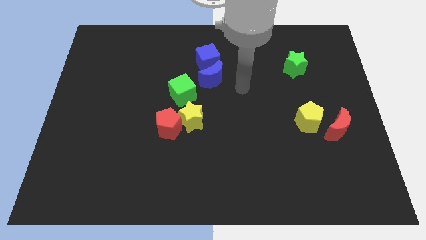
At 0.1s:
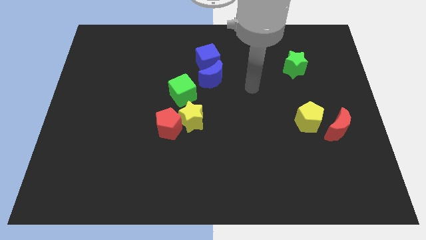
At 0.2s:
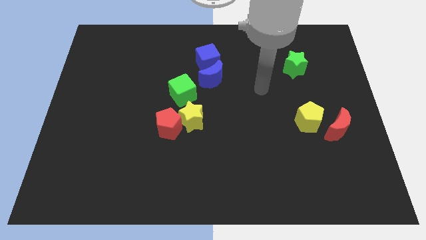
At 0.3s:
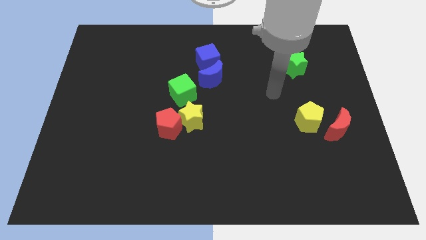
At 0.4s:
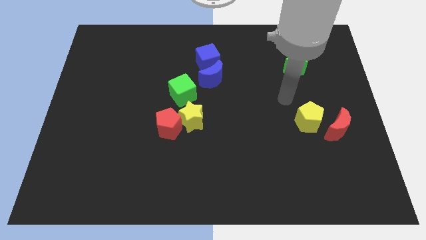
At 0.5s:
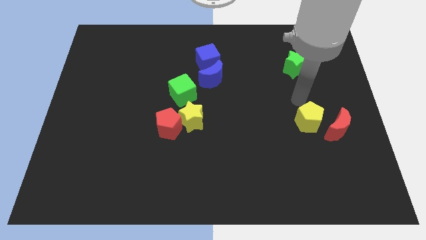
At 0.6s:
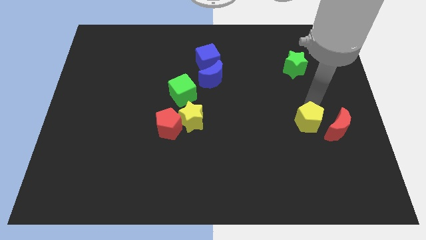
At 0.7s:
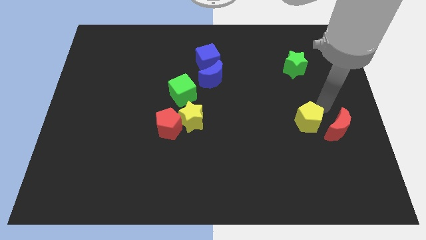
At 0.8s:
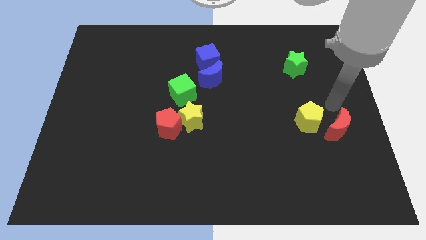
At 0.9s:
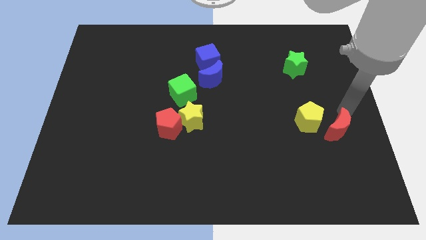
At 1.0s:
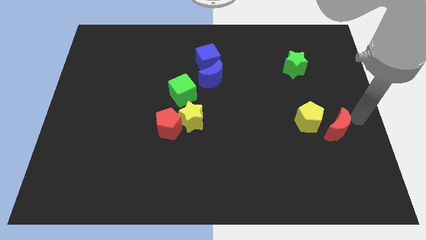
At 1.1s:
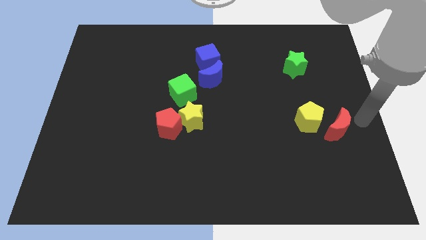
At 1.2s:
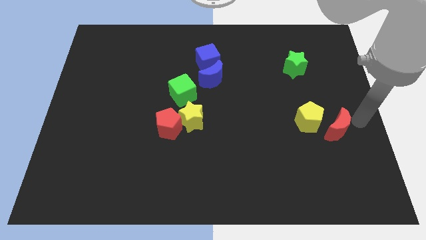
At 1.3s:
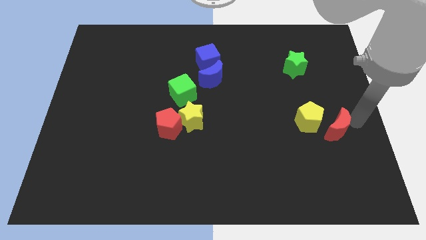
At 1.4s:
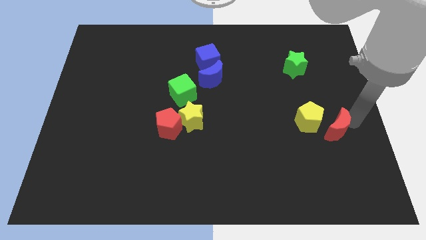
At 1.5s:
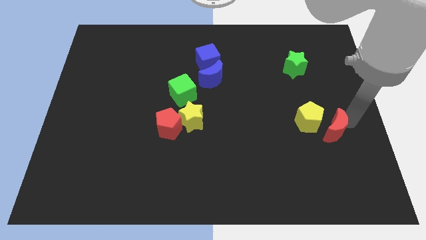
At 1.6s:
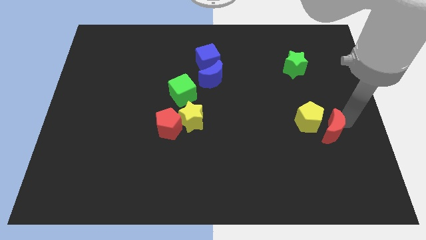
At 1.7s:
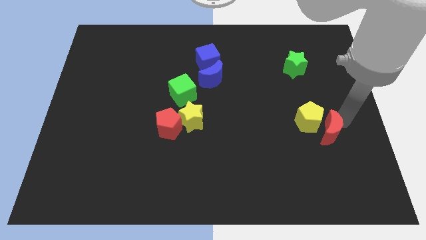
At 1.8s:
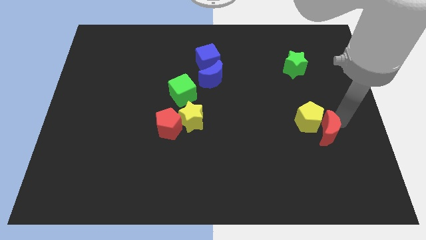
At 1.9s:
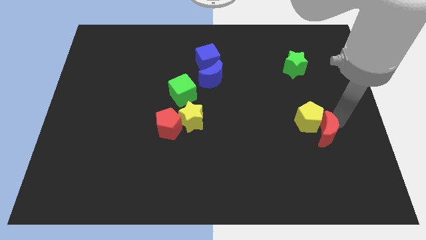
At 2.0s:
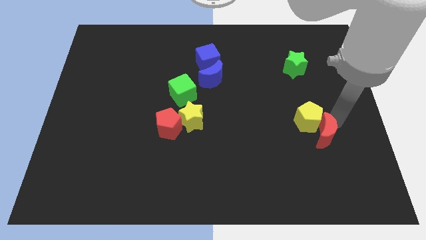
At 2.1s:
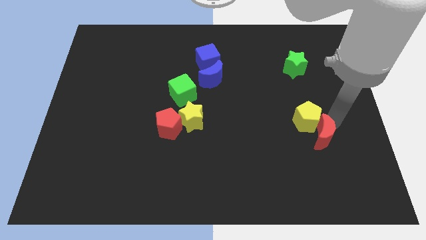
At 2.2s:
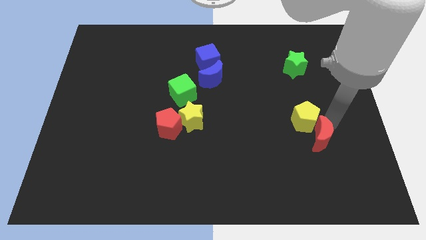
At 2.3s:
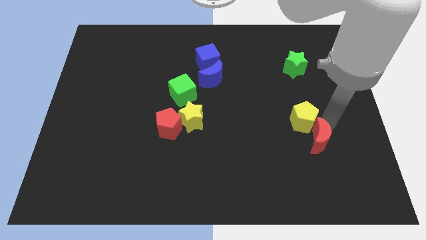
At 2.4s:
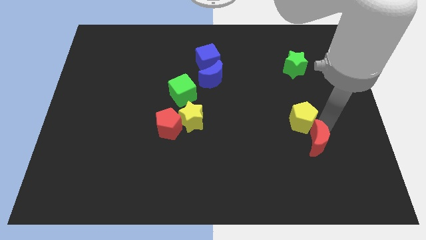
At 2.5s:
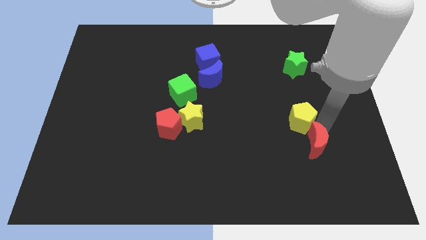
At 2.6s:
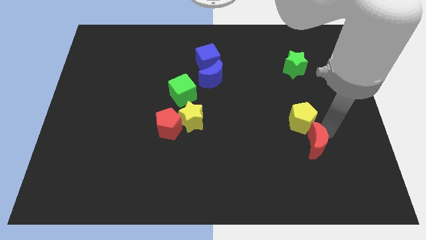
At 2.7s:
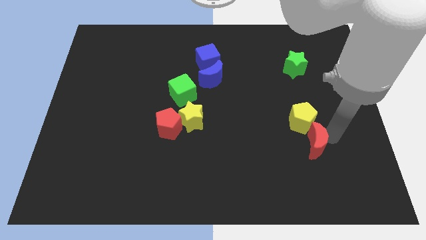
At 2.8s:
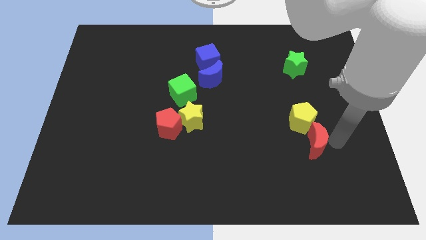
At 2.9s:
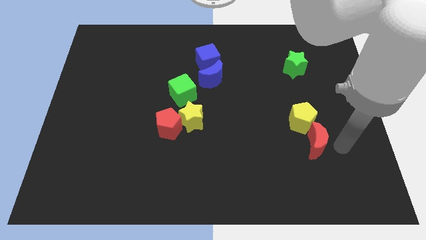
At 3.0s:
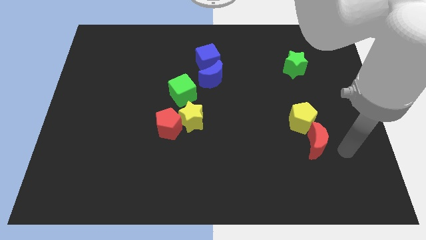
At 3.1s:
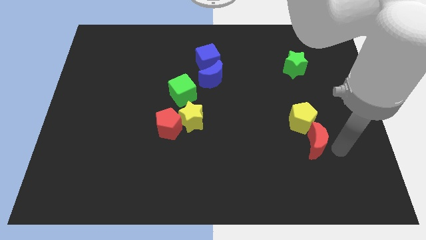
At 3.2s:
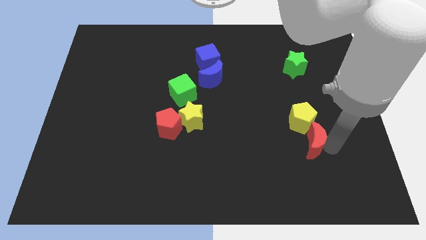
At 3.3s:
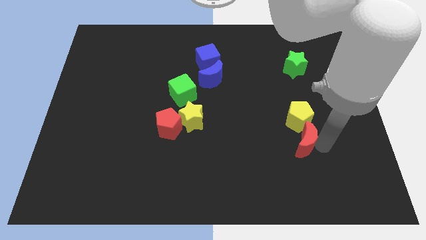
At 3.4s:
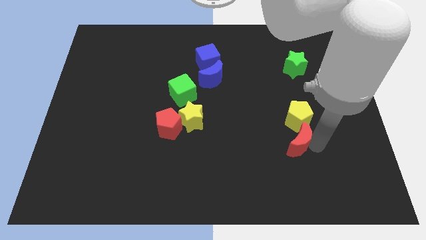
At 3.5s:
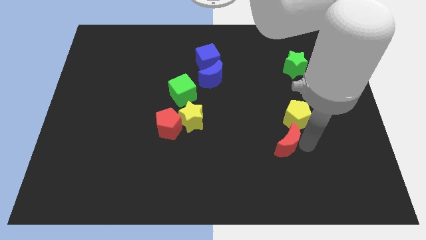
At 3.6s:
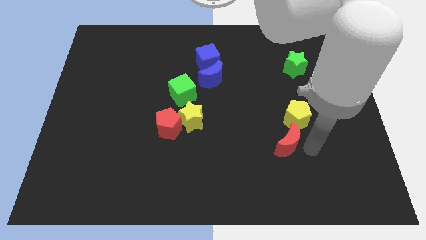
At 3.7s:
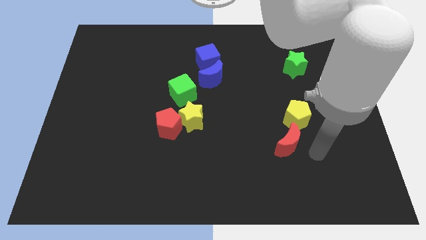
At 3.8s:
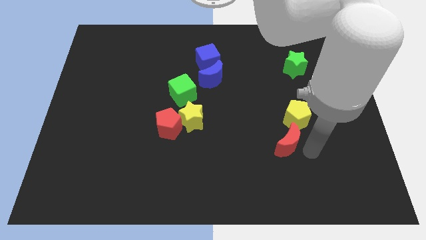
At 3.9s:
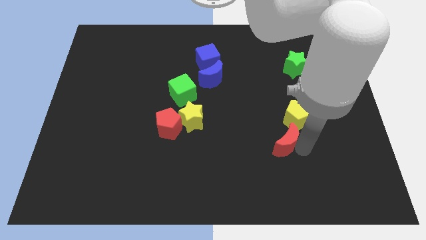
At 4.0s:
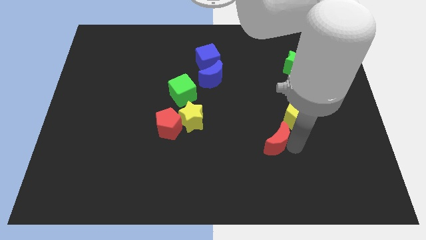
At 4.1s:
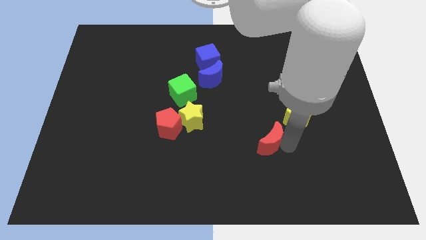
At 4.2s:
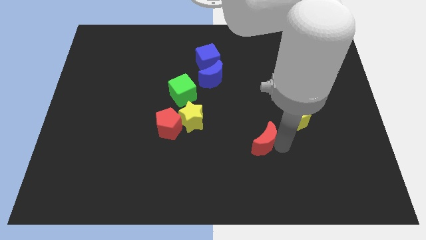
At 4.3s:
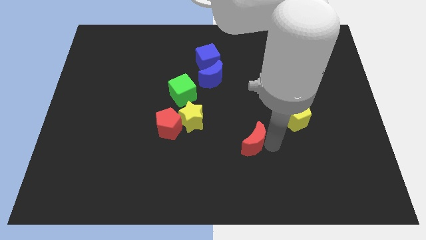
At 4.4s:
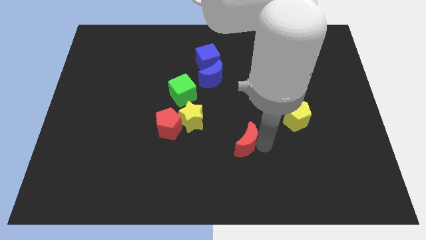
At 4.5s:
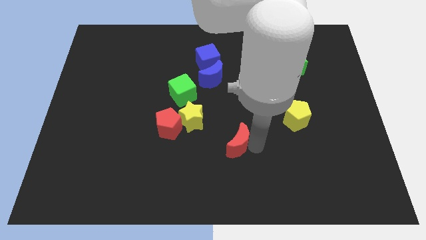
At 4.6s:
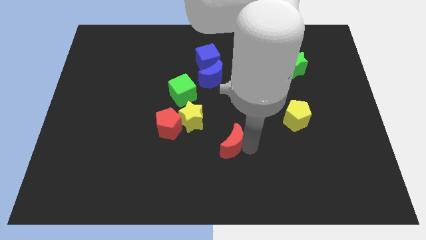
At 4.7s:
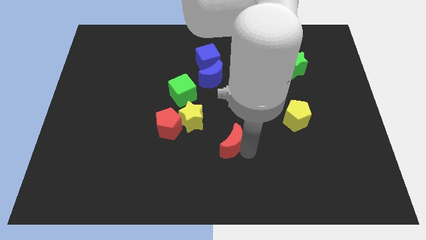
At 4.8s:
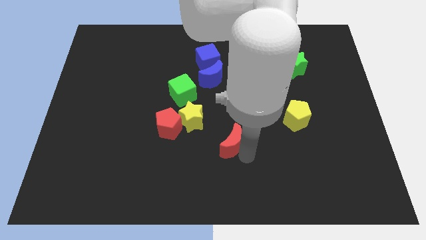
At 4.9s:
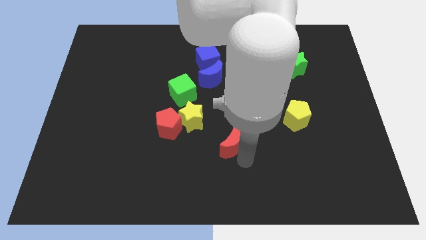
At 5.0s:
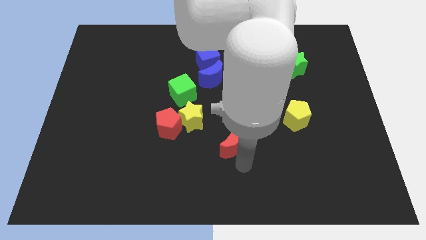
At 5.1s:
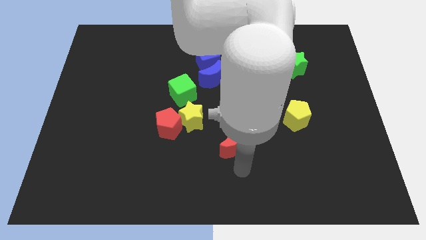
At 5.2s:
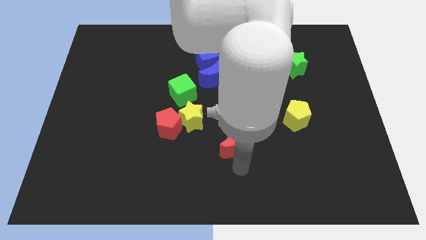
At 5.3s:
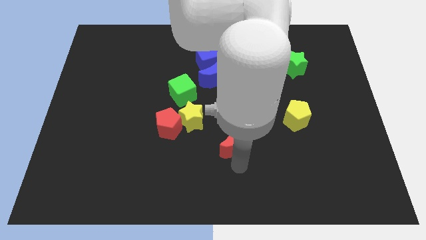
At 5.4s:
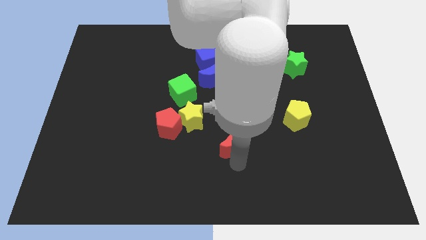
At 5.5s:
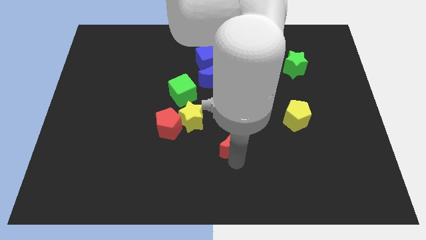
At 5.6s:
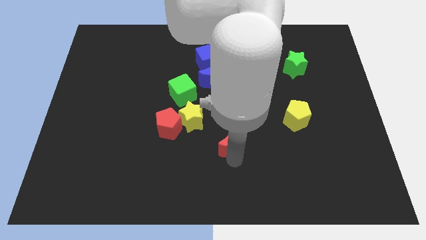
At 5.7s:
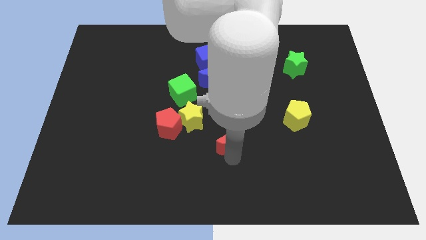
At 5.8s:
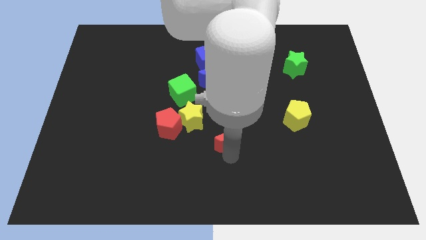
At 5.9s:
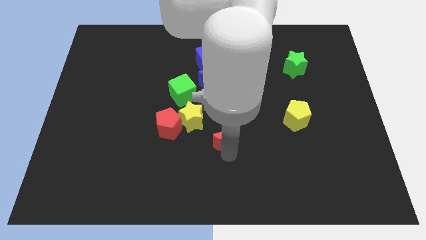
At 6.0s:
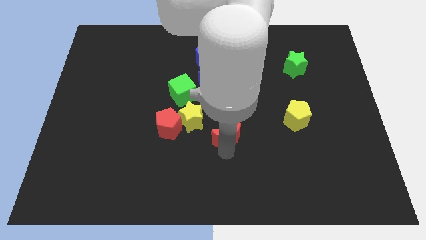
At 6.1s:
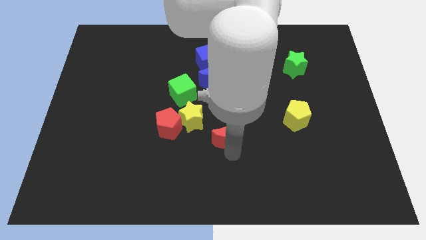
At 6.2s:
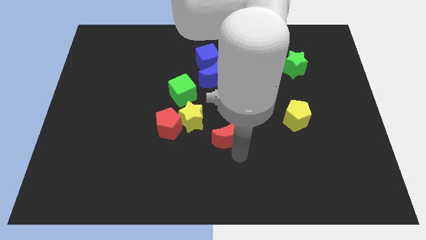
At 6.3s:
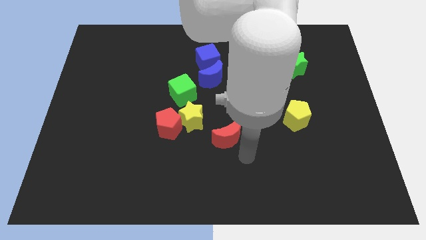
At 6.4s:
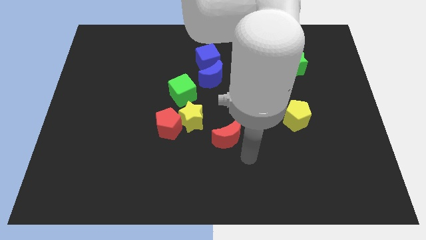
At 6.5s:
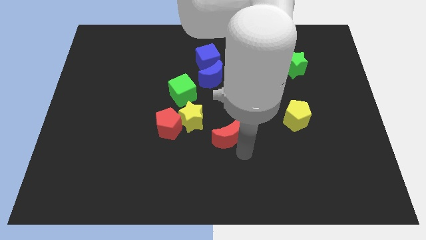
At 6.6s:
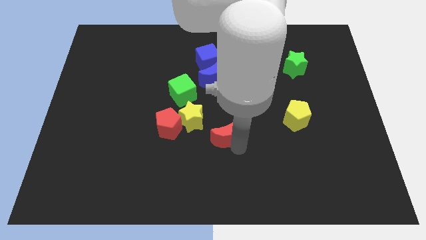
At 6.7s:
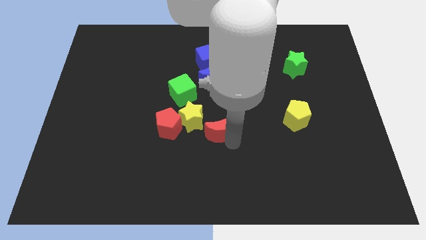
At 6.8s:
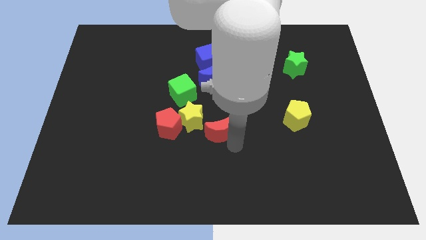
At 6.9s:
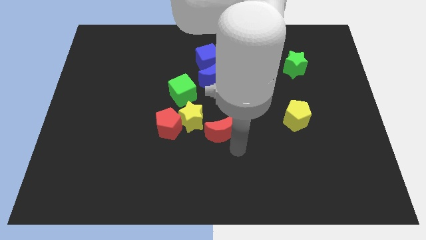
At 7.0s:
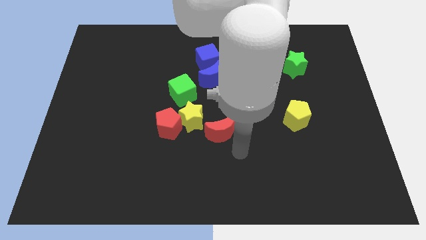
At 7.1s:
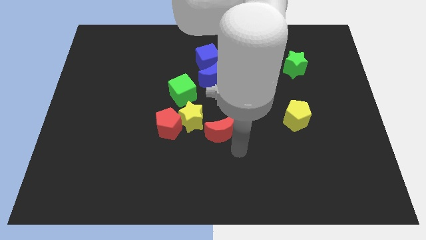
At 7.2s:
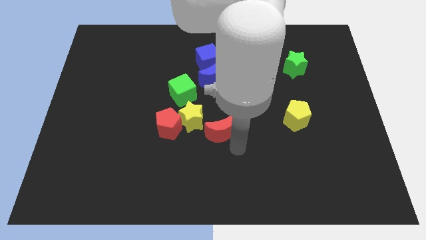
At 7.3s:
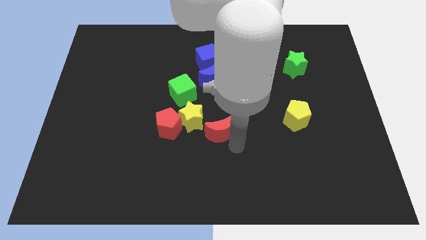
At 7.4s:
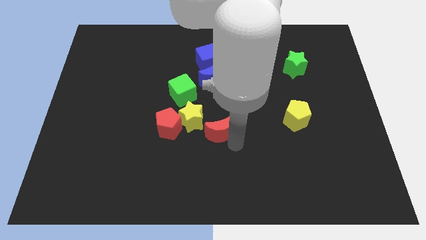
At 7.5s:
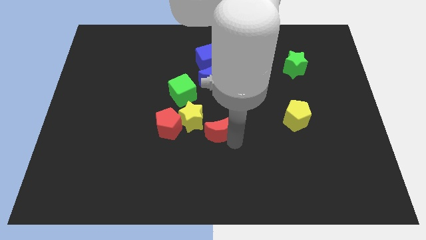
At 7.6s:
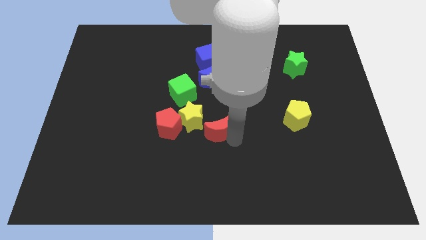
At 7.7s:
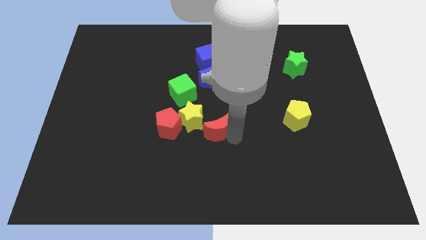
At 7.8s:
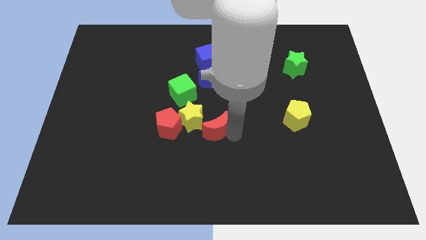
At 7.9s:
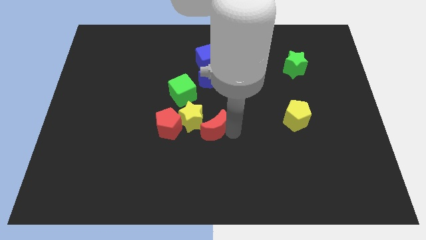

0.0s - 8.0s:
slide the red moon towards the yellow star

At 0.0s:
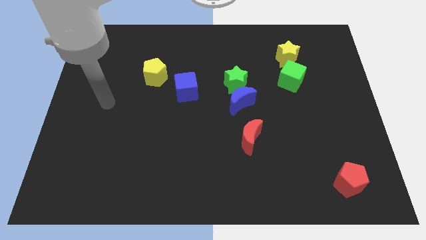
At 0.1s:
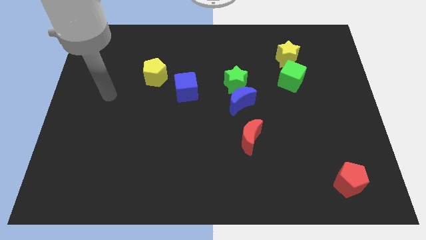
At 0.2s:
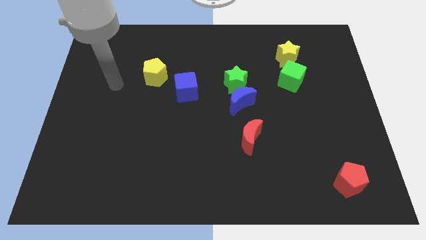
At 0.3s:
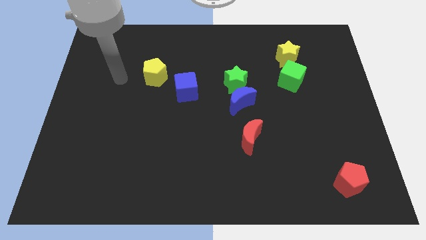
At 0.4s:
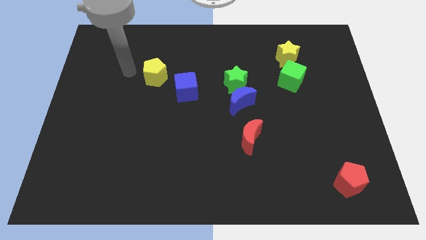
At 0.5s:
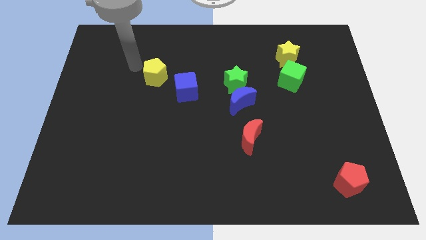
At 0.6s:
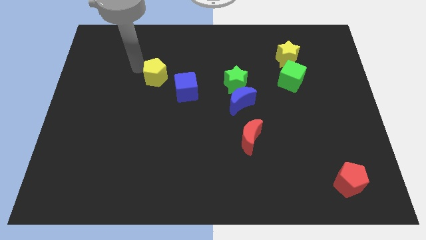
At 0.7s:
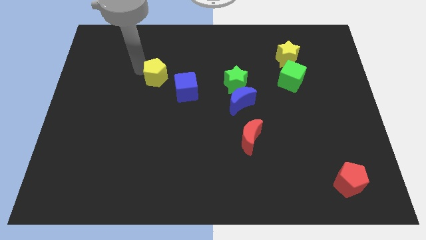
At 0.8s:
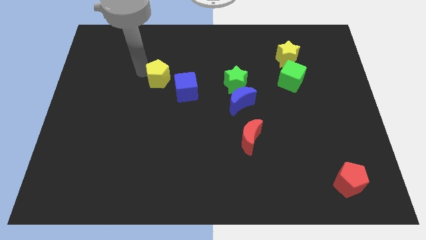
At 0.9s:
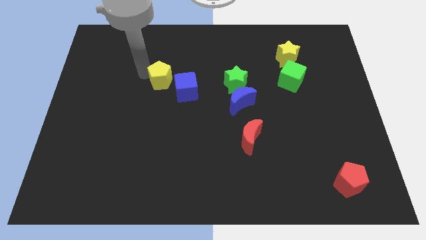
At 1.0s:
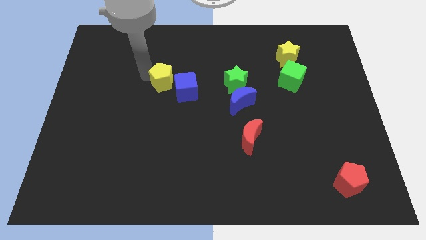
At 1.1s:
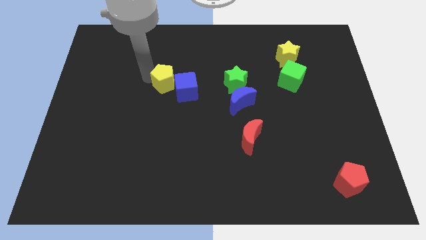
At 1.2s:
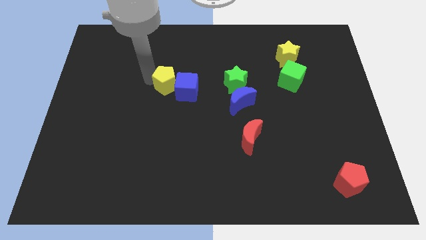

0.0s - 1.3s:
move the yellow pentagon towards the blue cube
